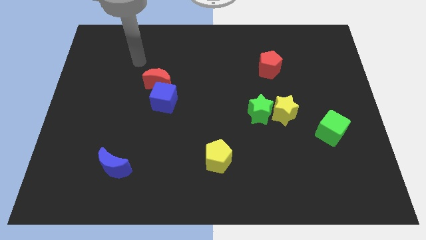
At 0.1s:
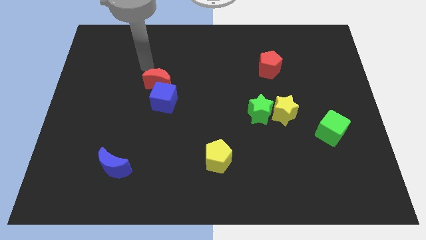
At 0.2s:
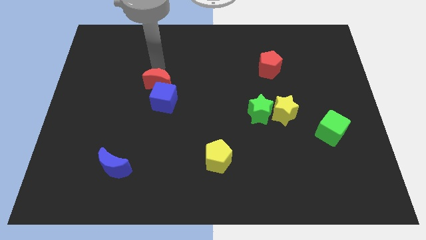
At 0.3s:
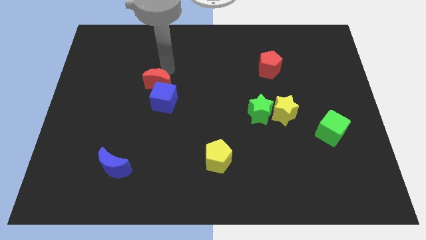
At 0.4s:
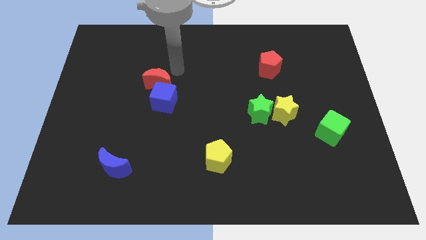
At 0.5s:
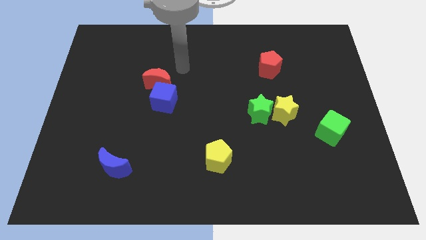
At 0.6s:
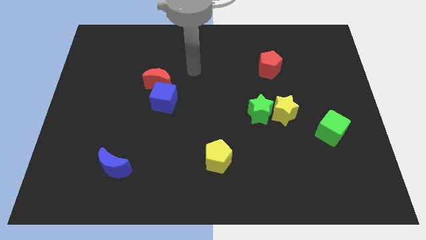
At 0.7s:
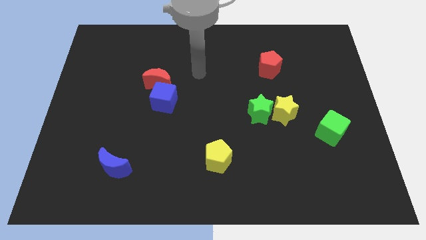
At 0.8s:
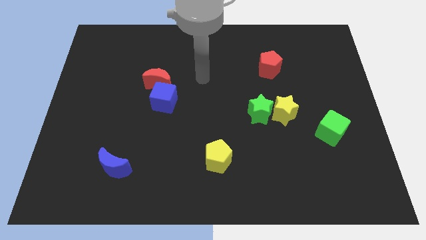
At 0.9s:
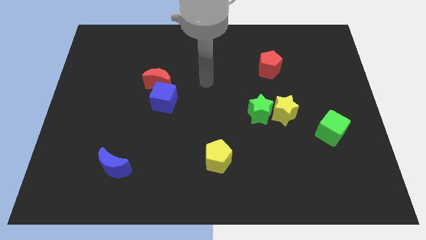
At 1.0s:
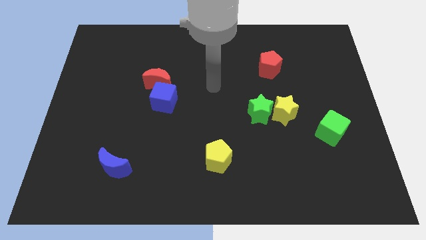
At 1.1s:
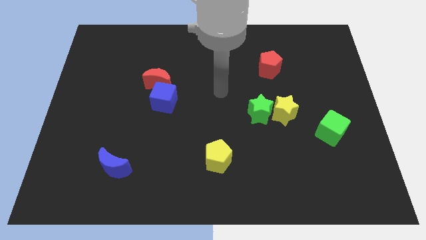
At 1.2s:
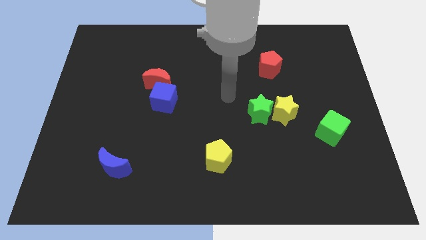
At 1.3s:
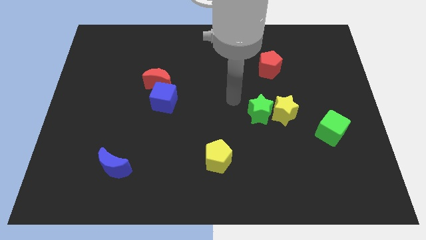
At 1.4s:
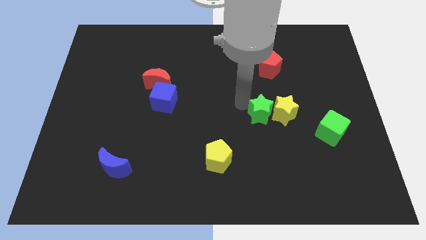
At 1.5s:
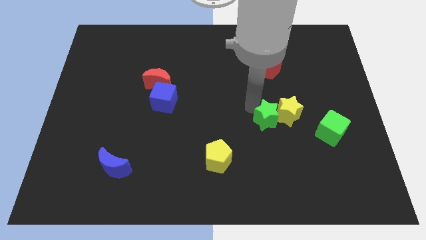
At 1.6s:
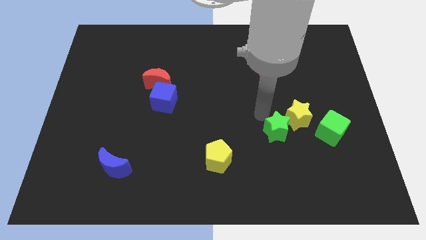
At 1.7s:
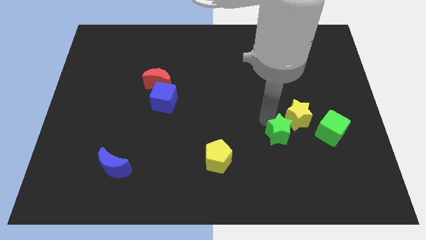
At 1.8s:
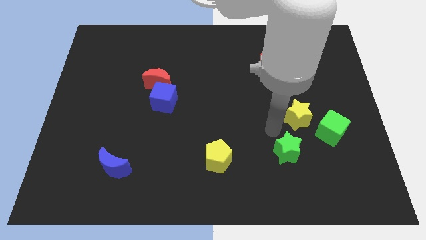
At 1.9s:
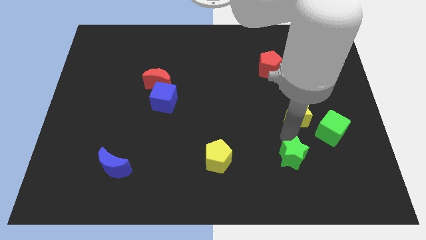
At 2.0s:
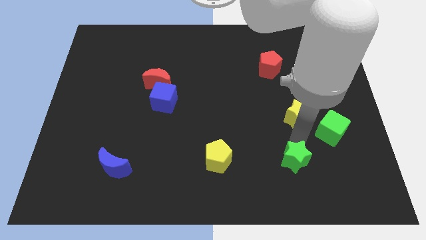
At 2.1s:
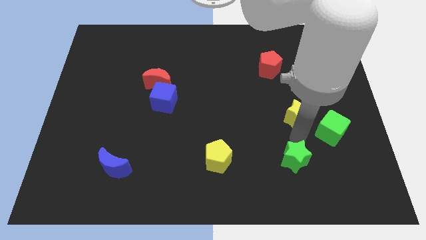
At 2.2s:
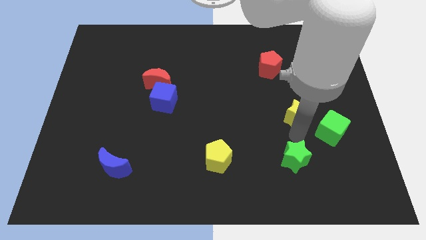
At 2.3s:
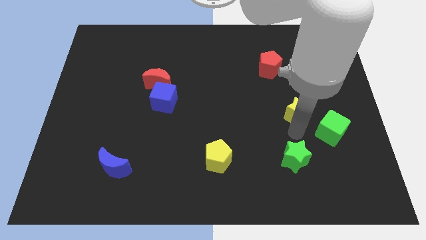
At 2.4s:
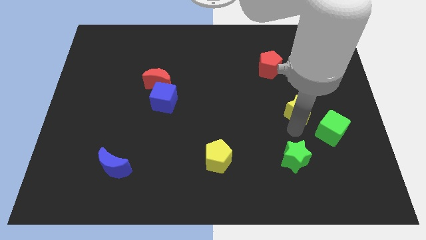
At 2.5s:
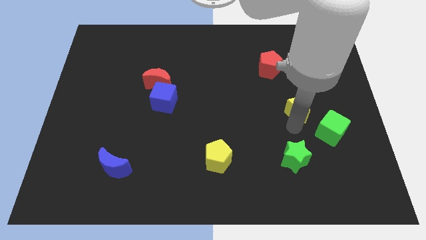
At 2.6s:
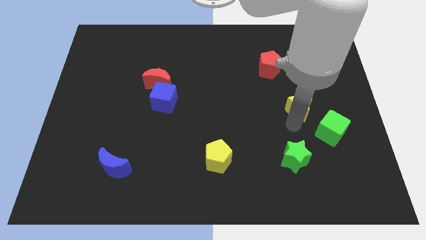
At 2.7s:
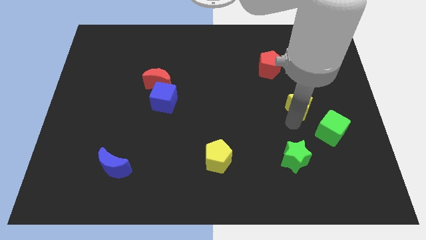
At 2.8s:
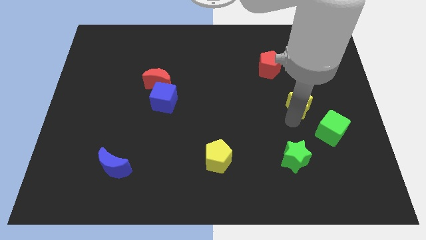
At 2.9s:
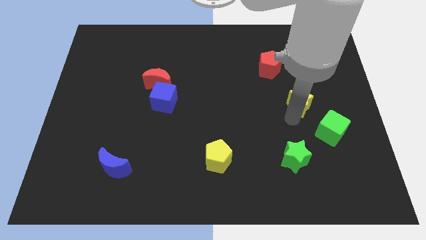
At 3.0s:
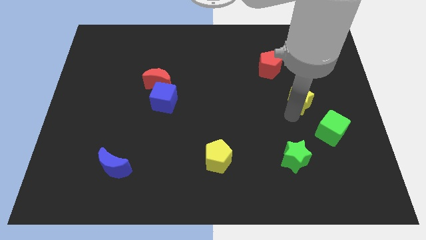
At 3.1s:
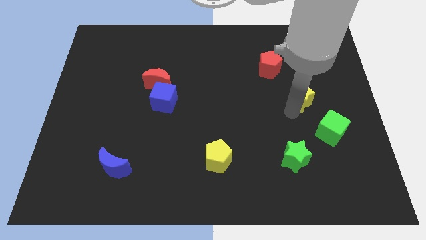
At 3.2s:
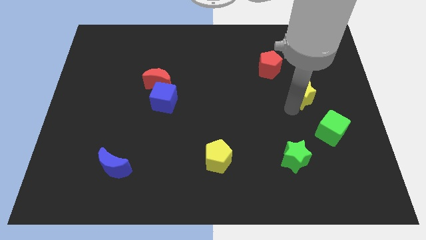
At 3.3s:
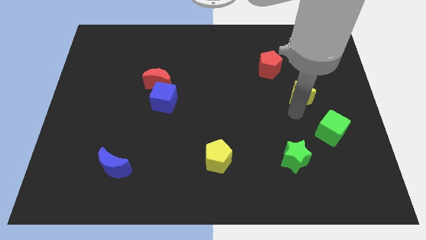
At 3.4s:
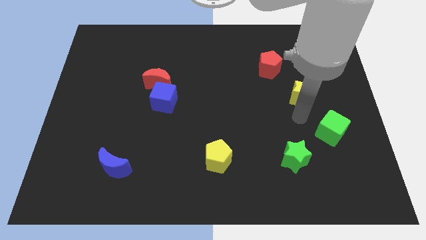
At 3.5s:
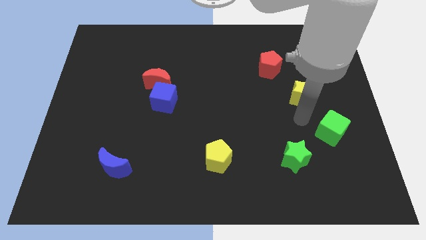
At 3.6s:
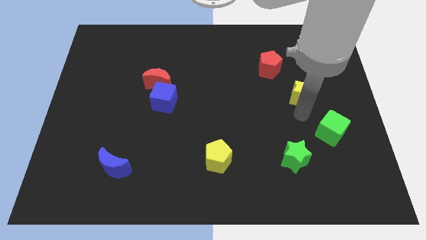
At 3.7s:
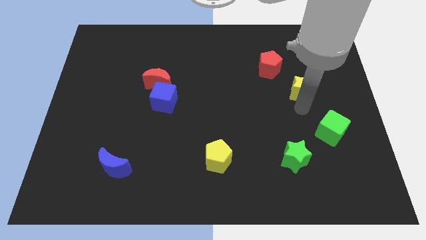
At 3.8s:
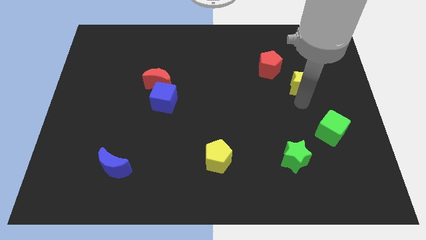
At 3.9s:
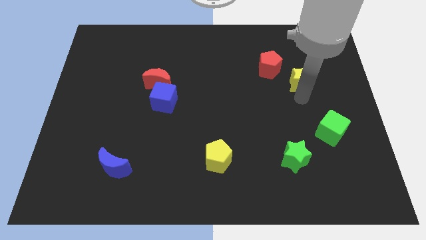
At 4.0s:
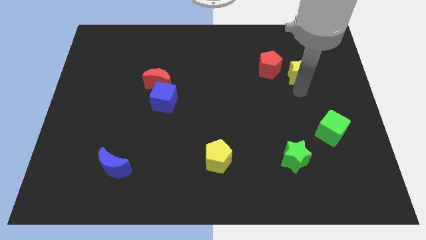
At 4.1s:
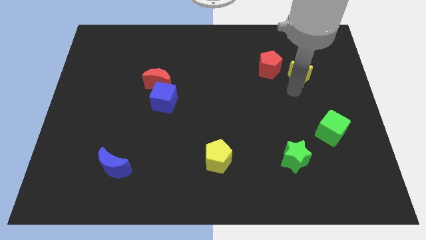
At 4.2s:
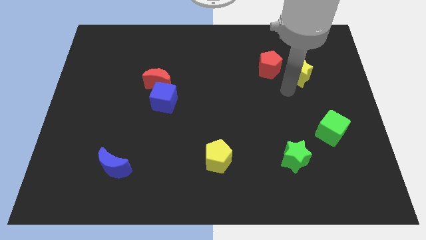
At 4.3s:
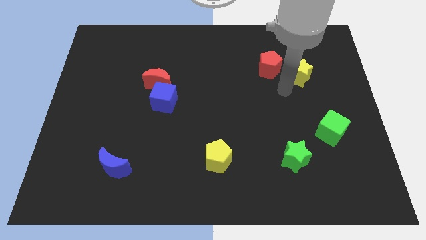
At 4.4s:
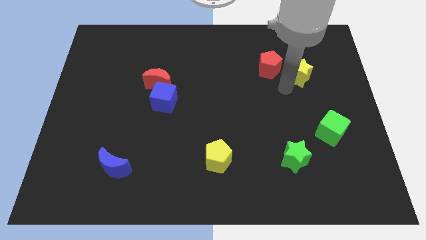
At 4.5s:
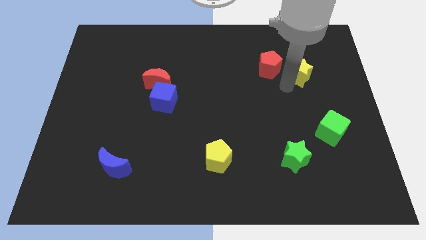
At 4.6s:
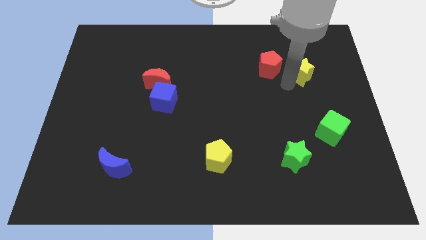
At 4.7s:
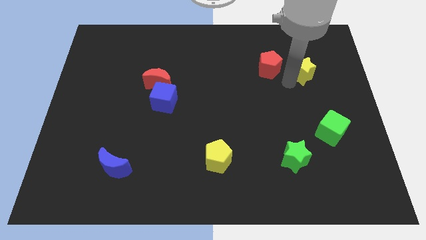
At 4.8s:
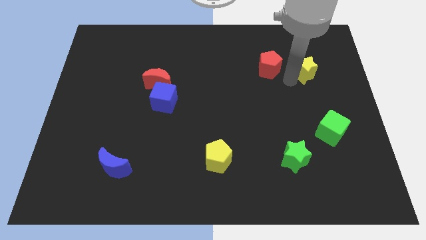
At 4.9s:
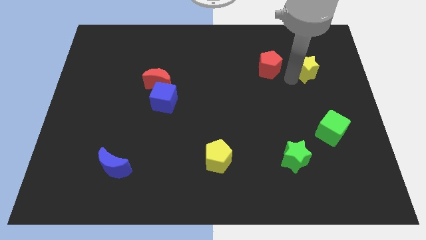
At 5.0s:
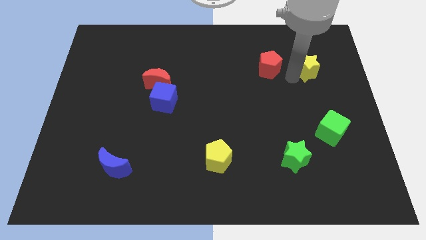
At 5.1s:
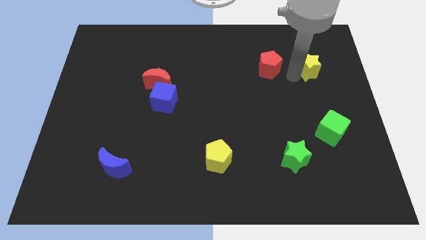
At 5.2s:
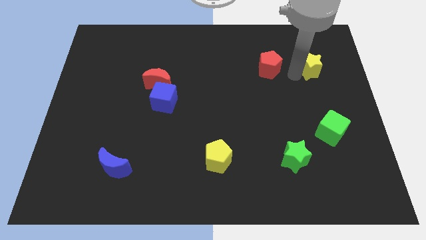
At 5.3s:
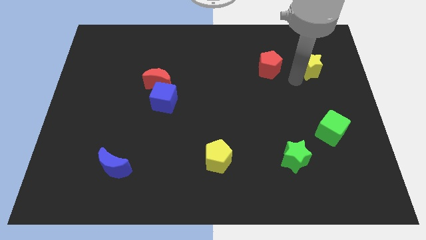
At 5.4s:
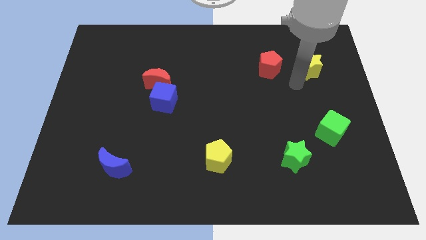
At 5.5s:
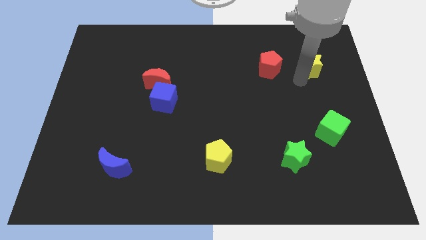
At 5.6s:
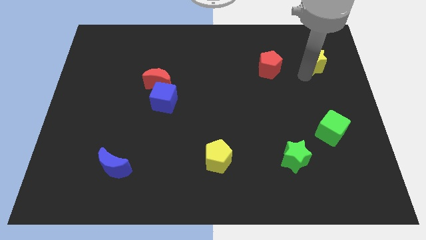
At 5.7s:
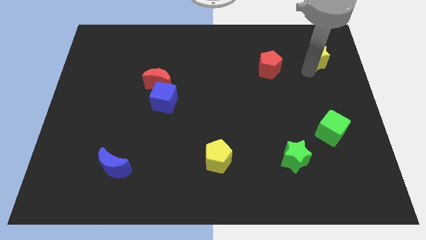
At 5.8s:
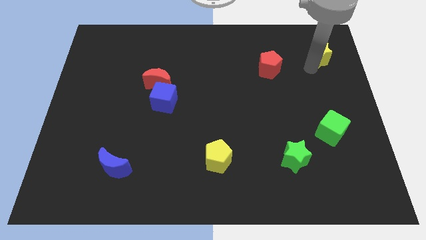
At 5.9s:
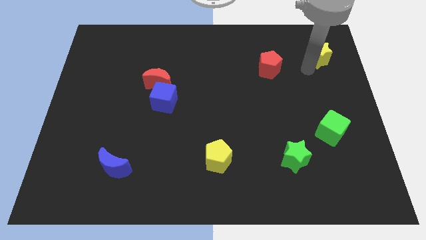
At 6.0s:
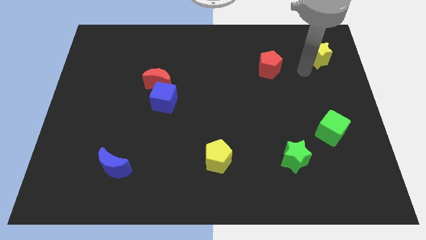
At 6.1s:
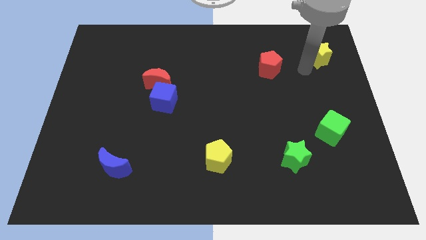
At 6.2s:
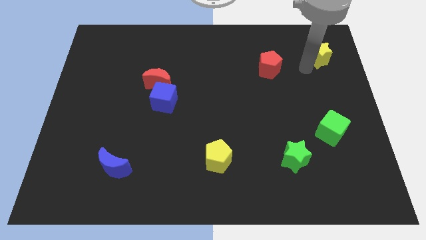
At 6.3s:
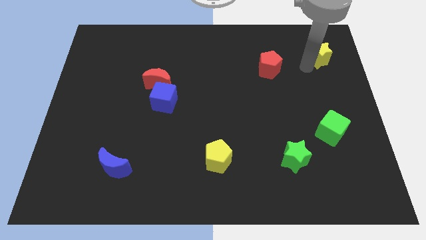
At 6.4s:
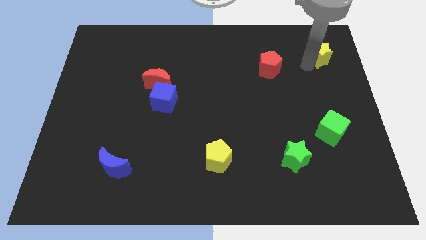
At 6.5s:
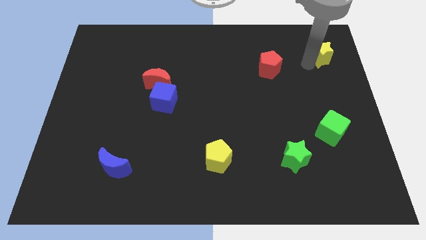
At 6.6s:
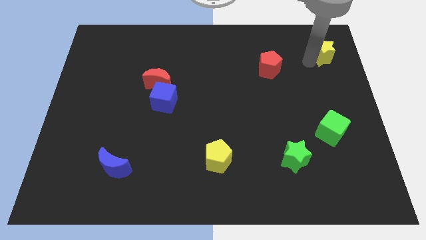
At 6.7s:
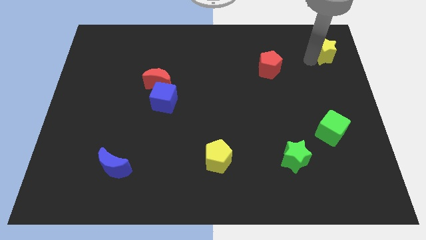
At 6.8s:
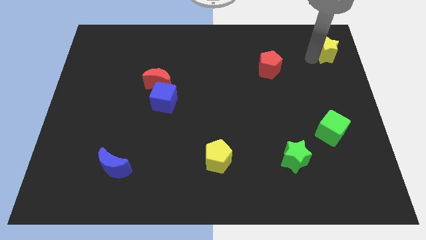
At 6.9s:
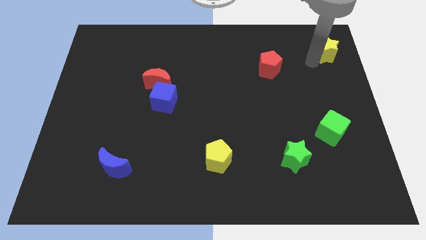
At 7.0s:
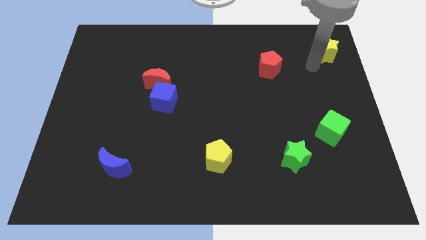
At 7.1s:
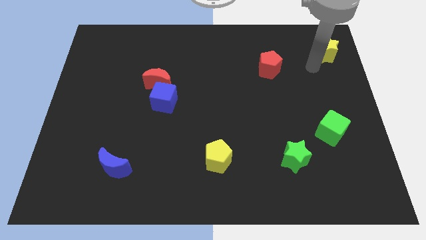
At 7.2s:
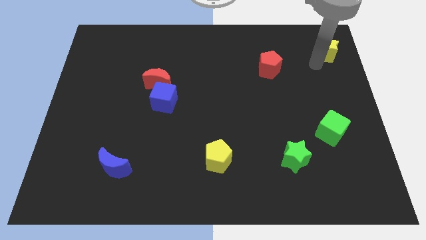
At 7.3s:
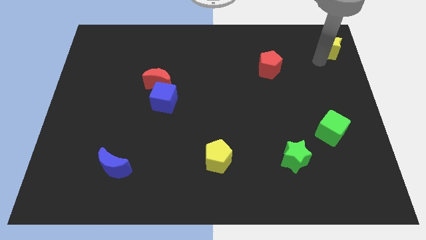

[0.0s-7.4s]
slide the yellow star to the top right corner

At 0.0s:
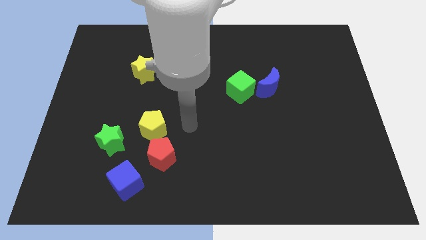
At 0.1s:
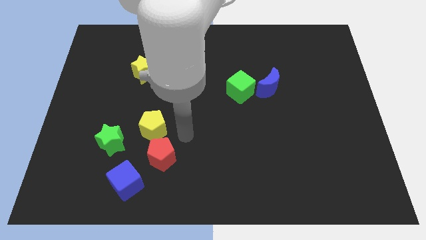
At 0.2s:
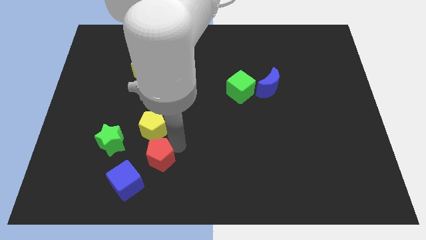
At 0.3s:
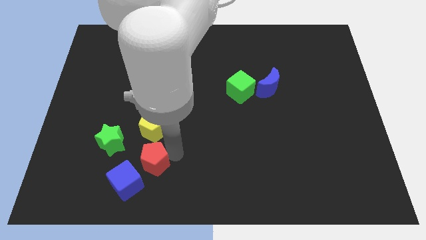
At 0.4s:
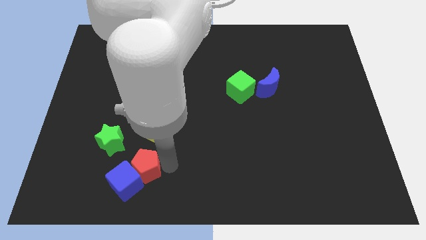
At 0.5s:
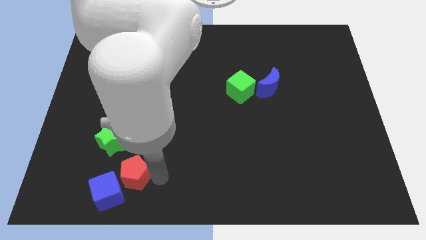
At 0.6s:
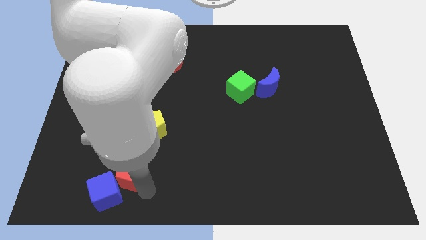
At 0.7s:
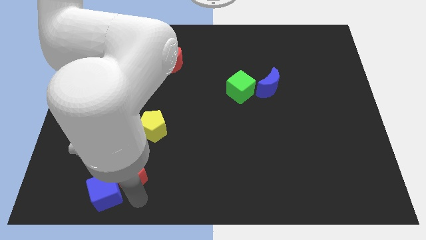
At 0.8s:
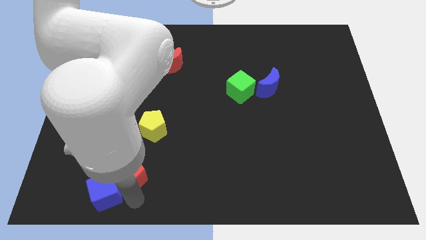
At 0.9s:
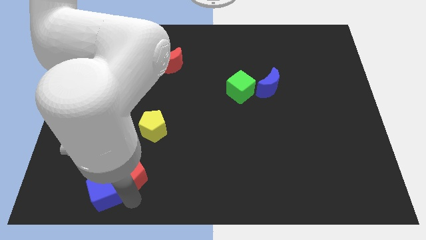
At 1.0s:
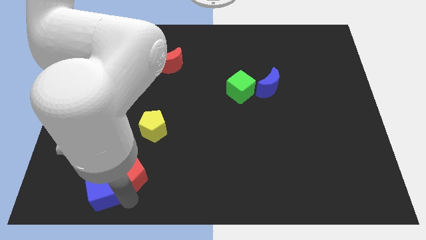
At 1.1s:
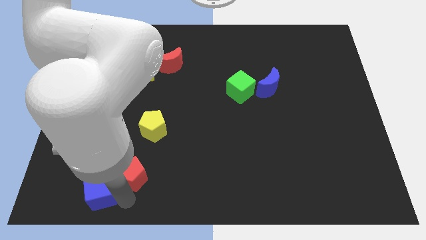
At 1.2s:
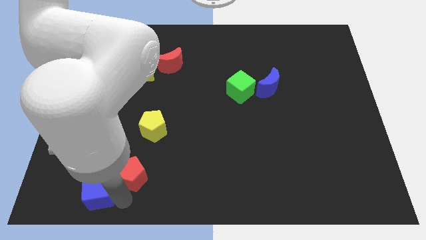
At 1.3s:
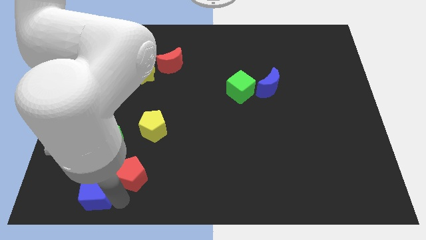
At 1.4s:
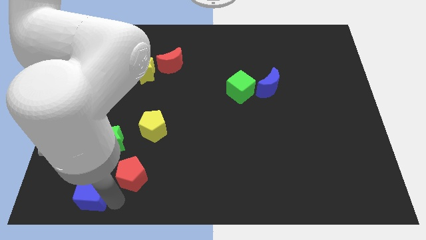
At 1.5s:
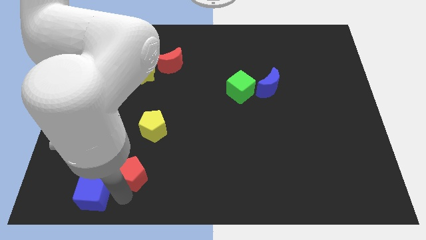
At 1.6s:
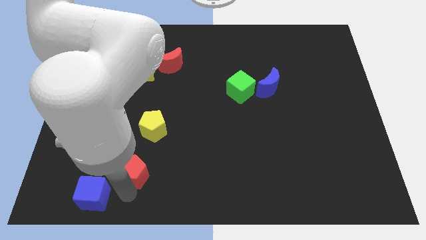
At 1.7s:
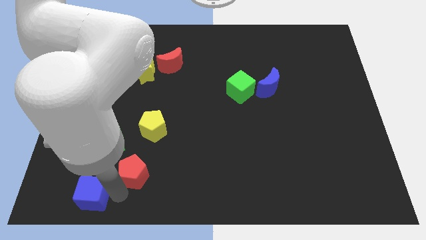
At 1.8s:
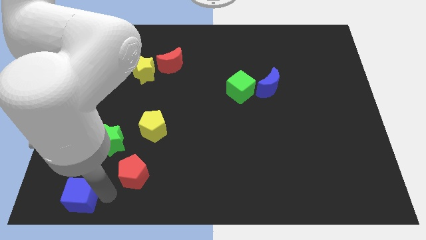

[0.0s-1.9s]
put the blue cube to the bottom left
